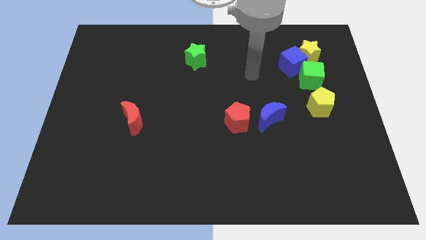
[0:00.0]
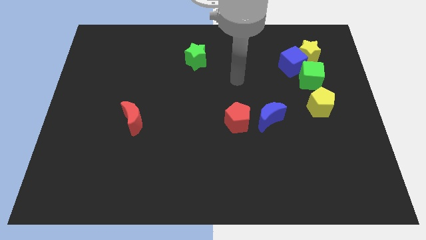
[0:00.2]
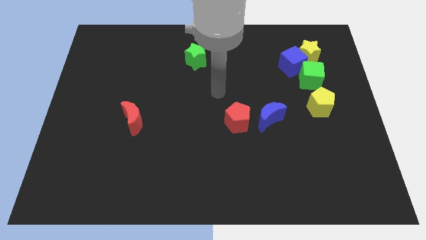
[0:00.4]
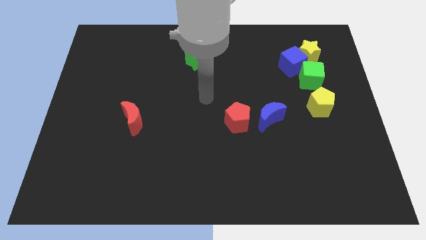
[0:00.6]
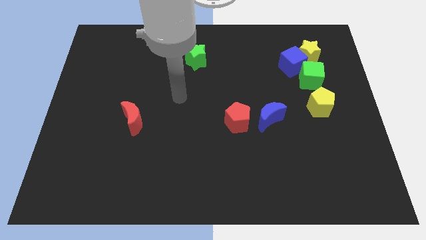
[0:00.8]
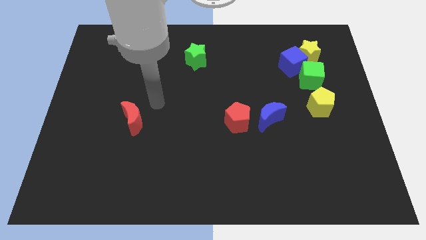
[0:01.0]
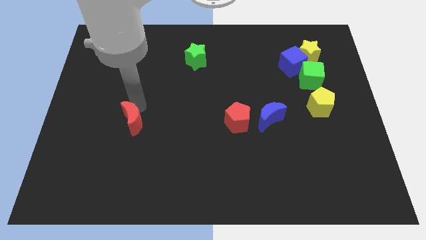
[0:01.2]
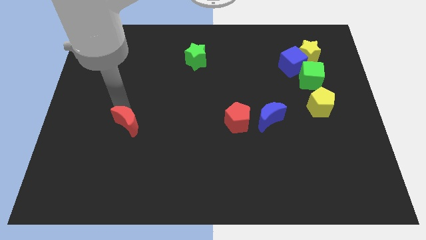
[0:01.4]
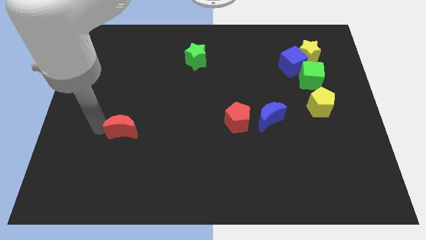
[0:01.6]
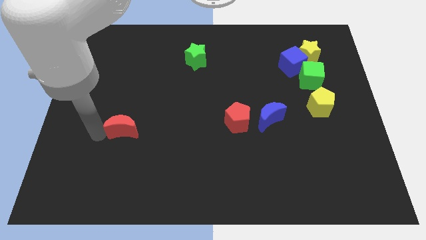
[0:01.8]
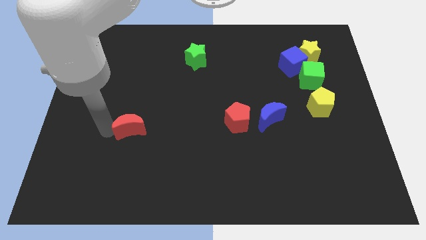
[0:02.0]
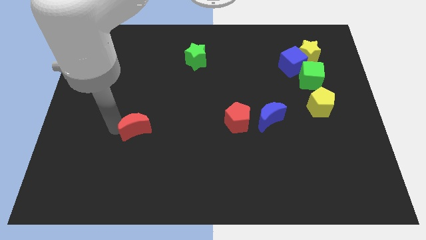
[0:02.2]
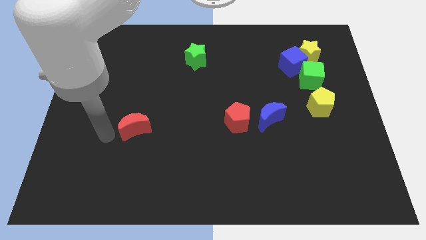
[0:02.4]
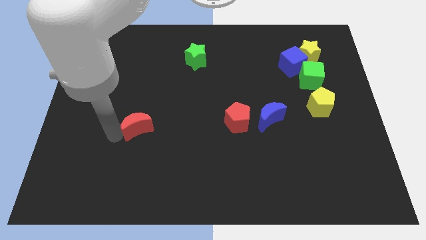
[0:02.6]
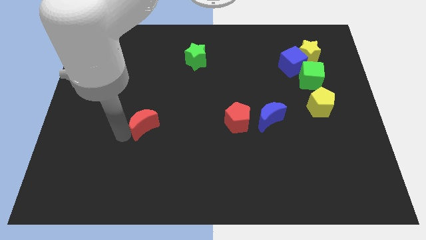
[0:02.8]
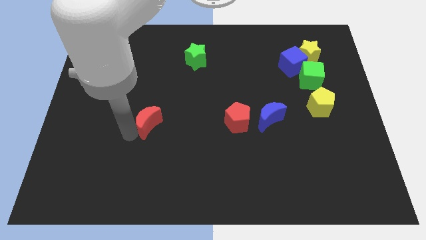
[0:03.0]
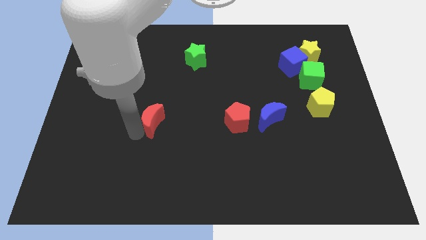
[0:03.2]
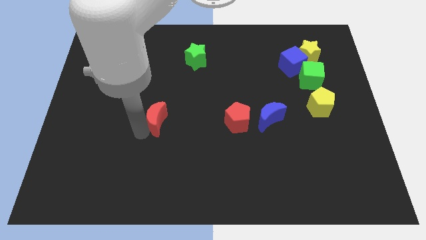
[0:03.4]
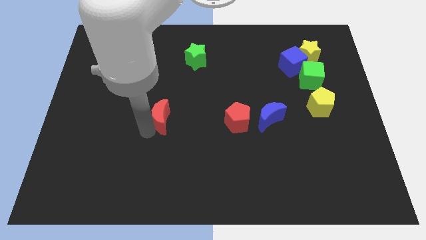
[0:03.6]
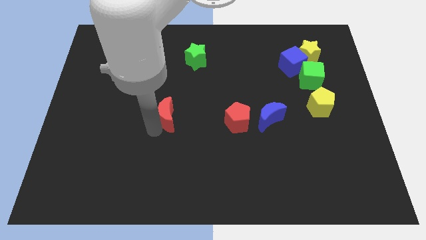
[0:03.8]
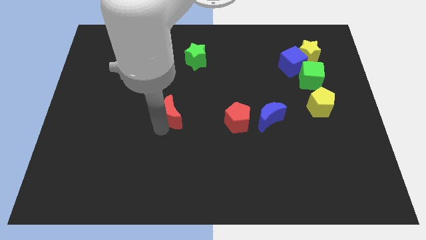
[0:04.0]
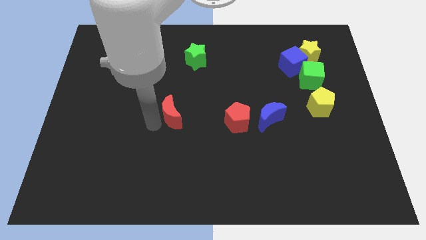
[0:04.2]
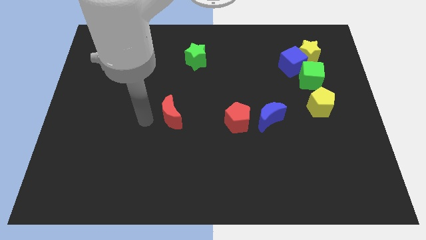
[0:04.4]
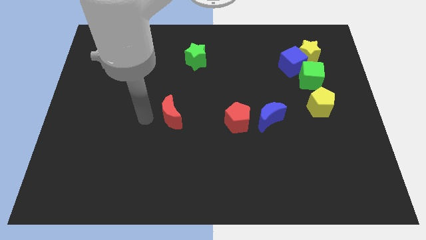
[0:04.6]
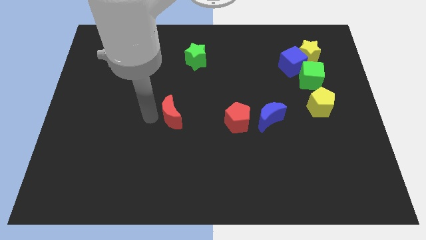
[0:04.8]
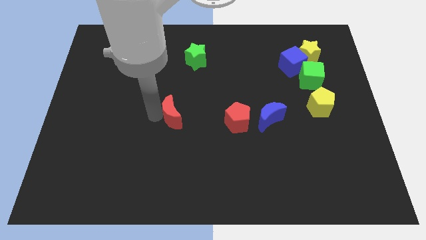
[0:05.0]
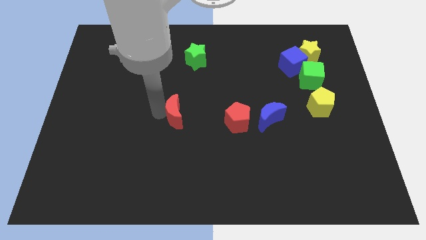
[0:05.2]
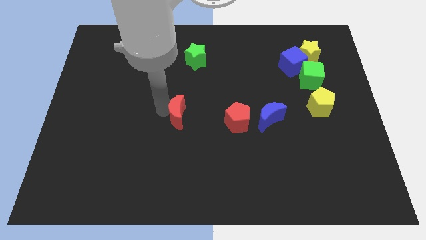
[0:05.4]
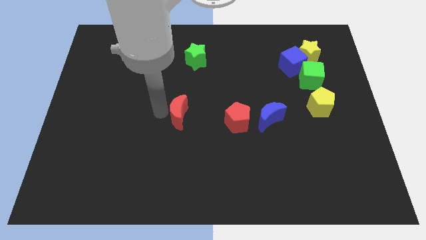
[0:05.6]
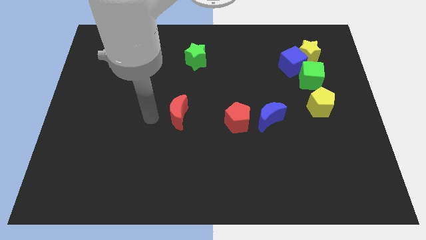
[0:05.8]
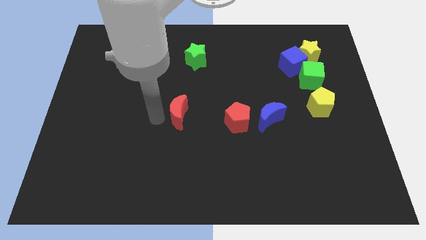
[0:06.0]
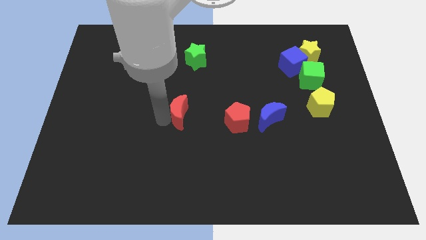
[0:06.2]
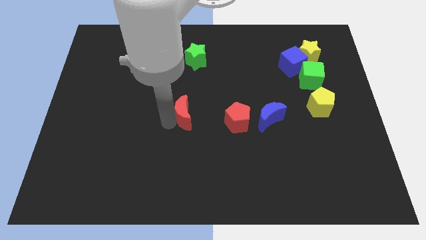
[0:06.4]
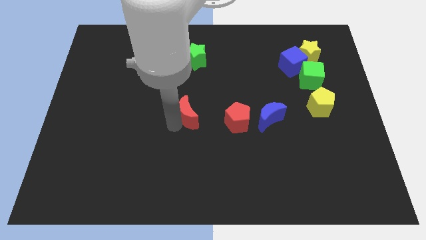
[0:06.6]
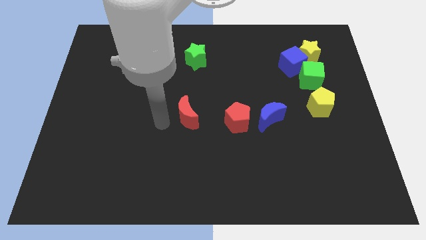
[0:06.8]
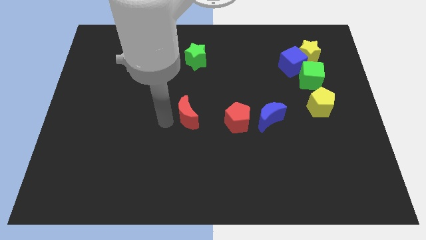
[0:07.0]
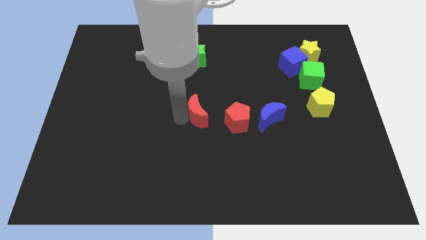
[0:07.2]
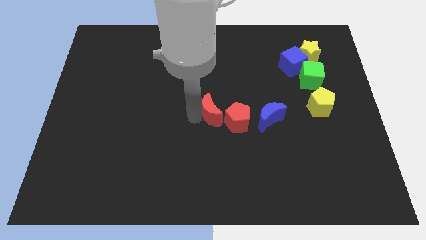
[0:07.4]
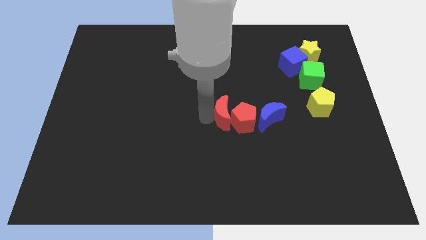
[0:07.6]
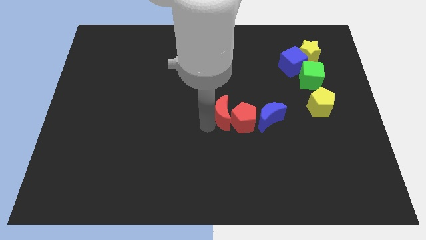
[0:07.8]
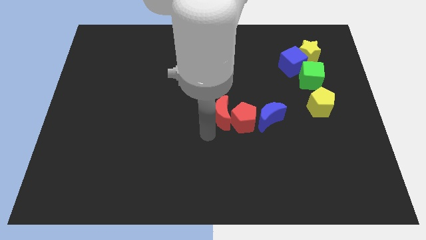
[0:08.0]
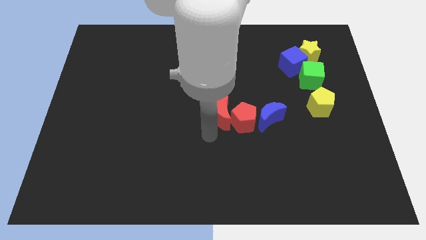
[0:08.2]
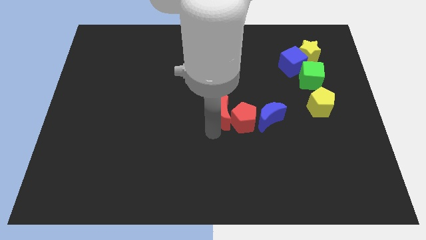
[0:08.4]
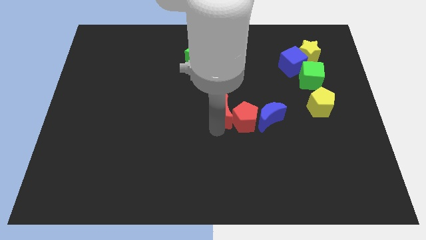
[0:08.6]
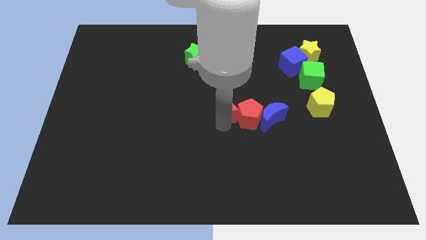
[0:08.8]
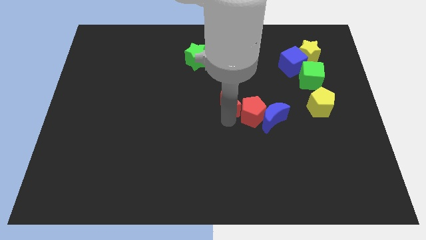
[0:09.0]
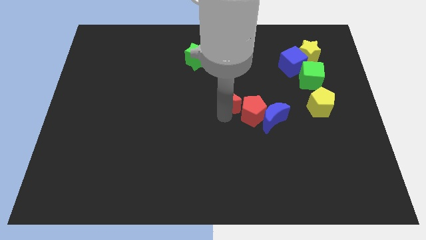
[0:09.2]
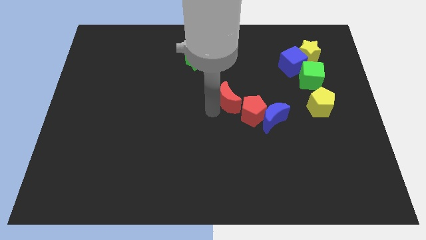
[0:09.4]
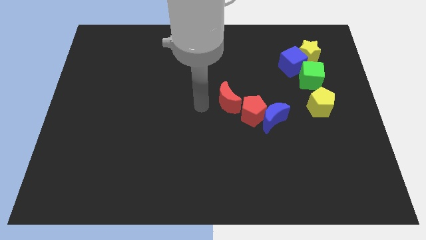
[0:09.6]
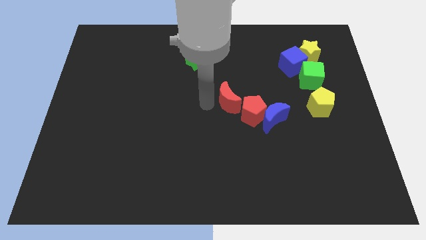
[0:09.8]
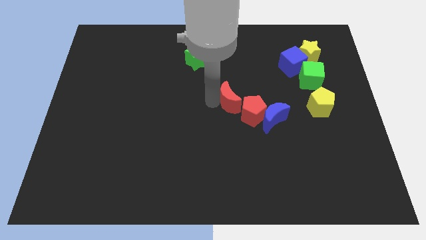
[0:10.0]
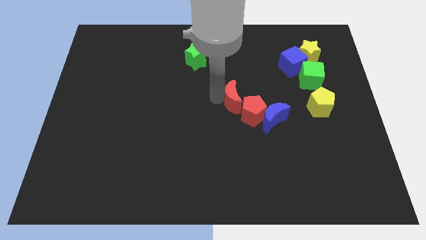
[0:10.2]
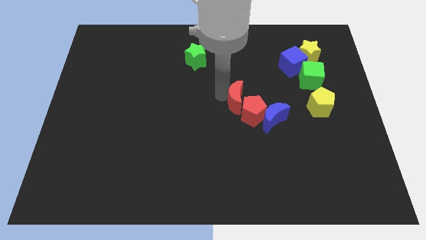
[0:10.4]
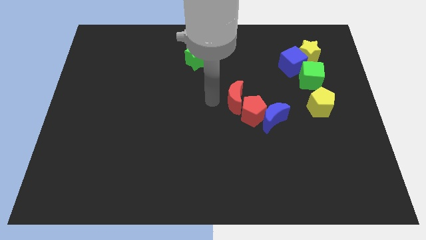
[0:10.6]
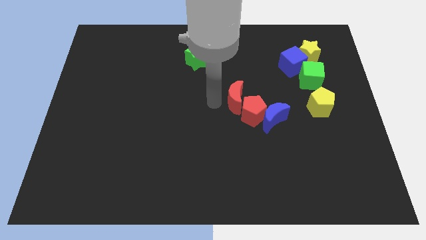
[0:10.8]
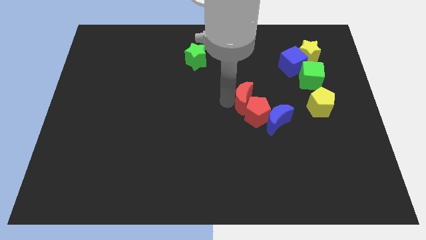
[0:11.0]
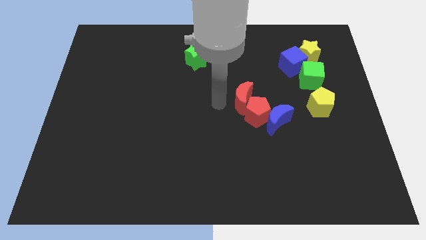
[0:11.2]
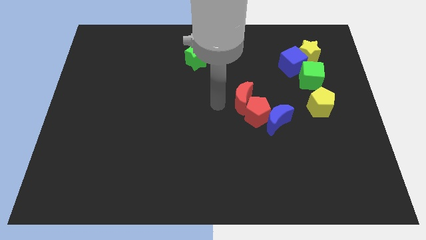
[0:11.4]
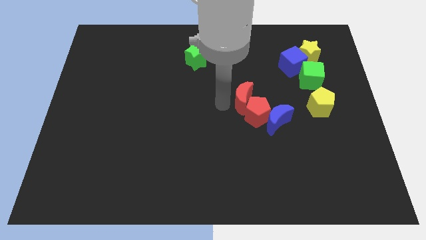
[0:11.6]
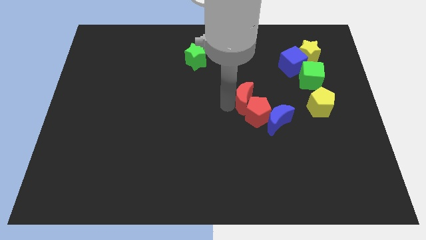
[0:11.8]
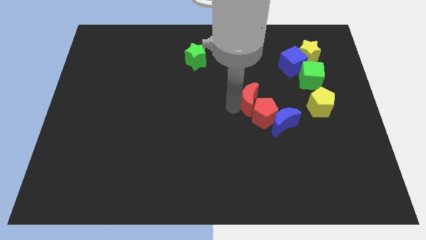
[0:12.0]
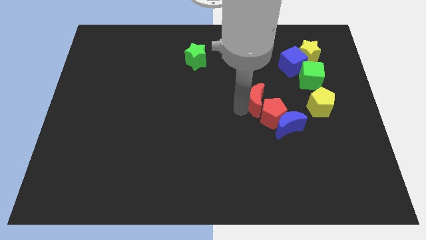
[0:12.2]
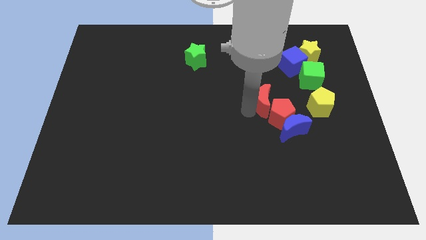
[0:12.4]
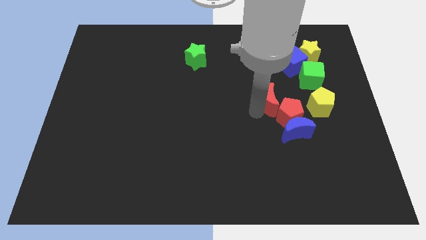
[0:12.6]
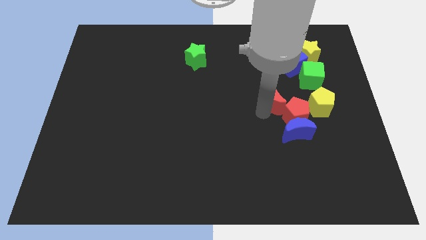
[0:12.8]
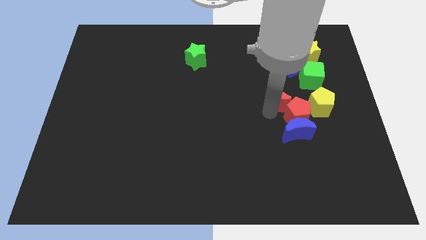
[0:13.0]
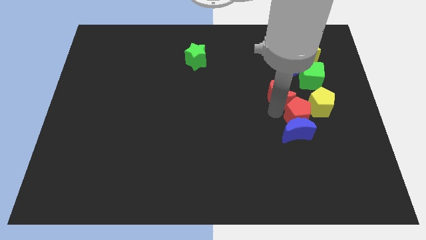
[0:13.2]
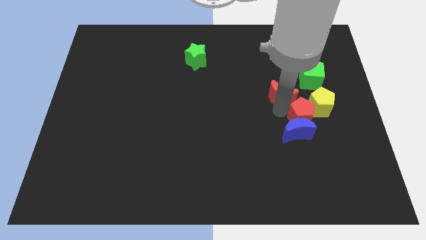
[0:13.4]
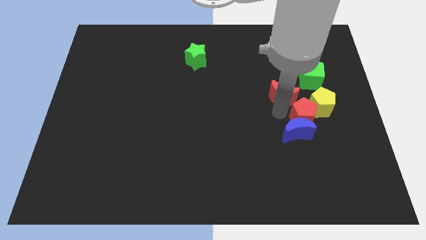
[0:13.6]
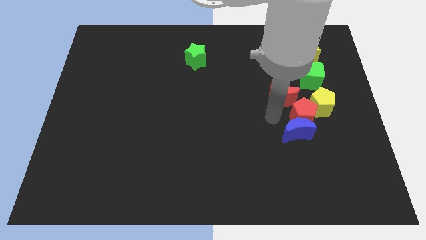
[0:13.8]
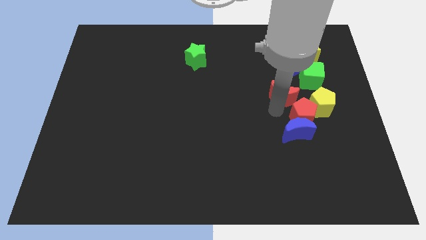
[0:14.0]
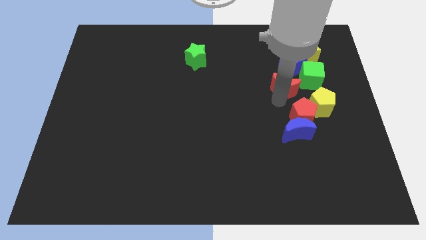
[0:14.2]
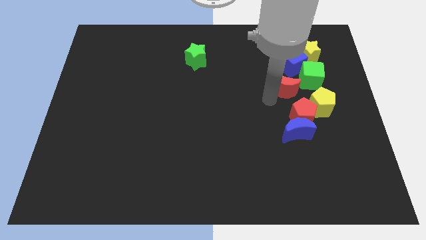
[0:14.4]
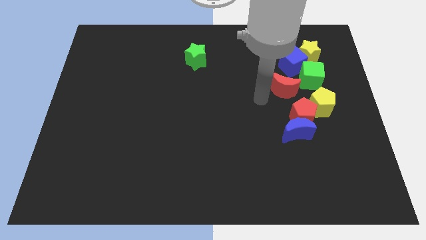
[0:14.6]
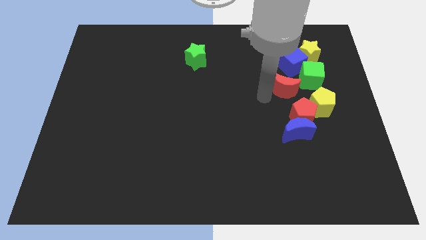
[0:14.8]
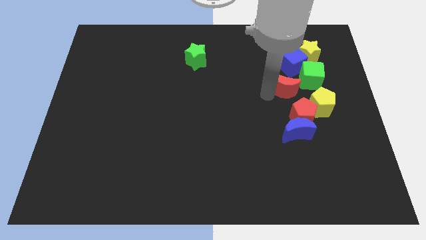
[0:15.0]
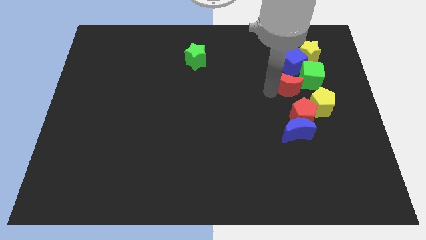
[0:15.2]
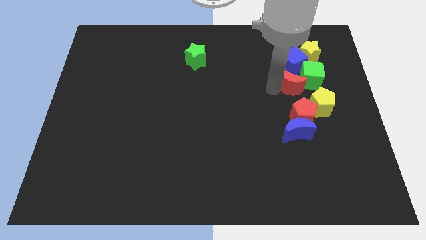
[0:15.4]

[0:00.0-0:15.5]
push the red moon to the green cube
